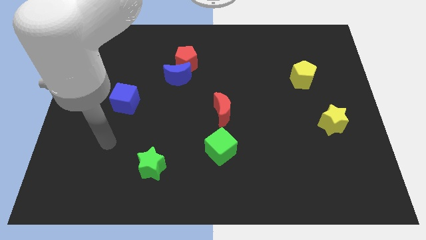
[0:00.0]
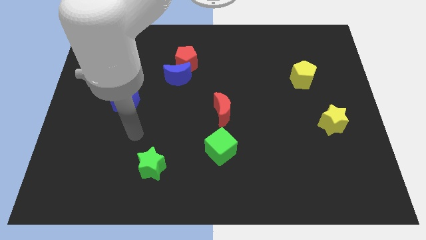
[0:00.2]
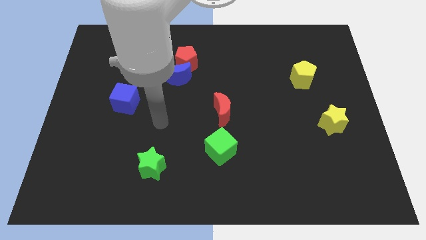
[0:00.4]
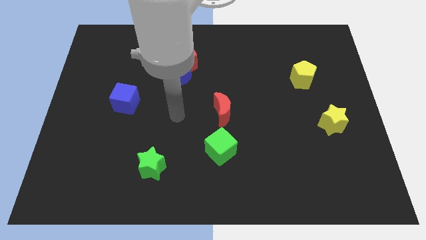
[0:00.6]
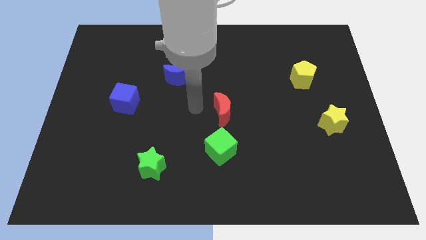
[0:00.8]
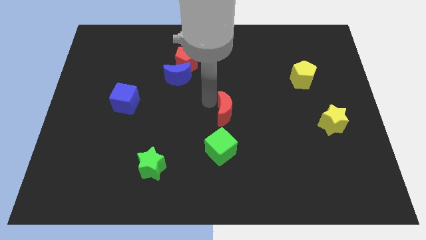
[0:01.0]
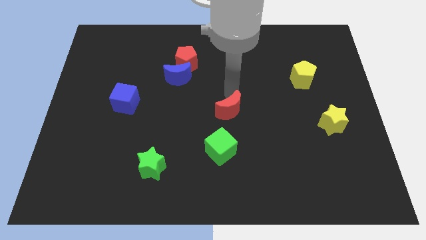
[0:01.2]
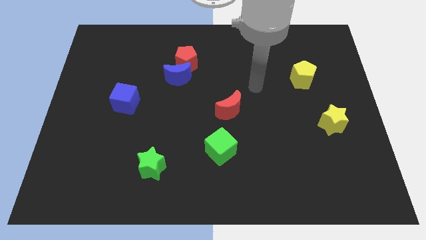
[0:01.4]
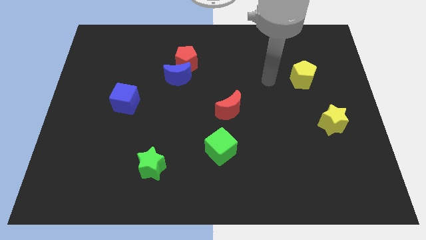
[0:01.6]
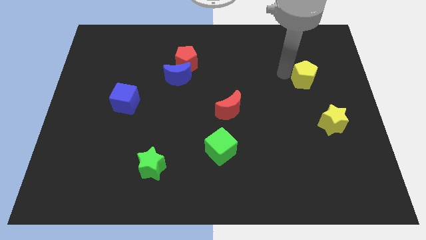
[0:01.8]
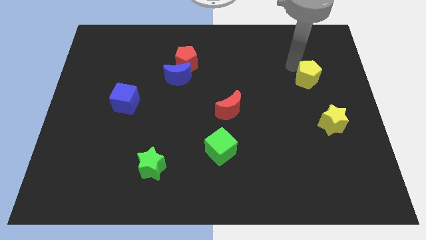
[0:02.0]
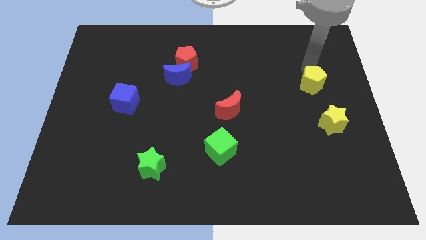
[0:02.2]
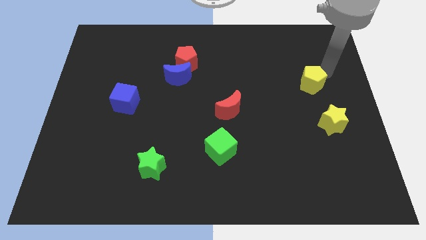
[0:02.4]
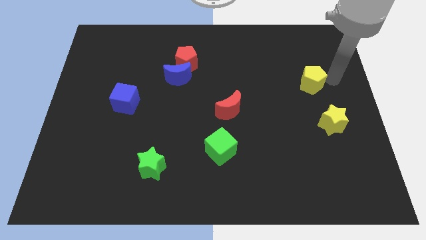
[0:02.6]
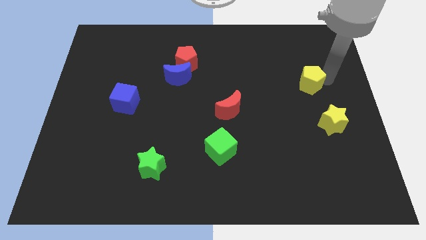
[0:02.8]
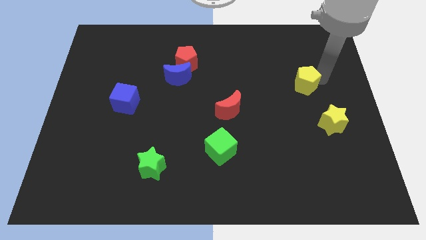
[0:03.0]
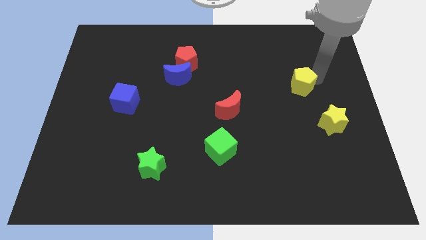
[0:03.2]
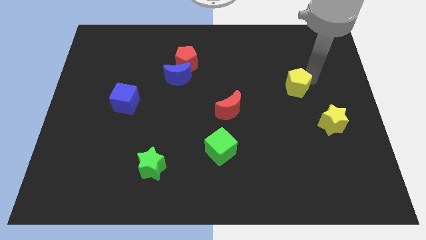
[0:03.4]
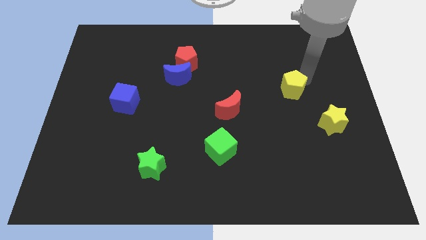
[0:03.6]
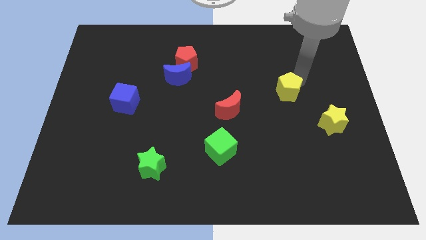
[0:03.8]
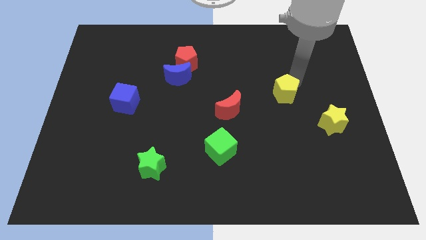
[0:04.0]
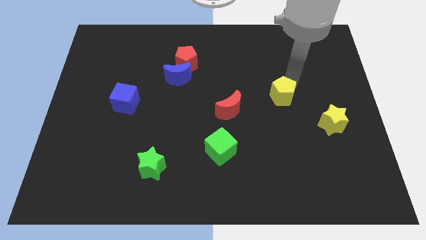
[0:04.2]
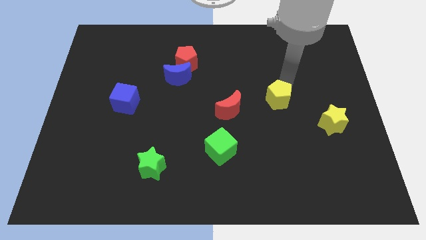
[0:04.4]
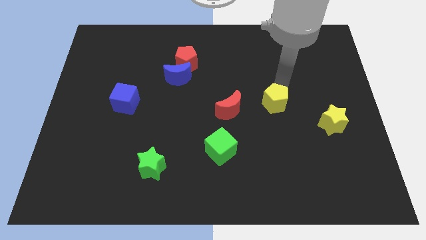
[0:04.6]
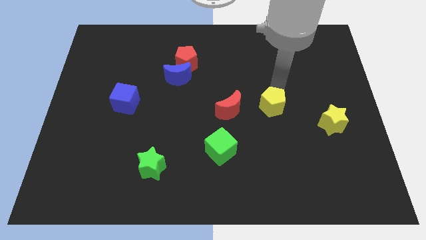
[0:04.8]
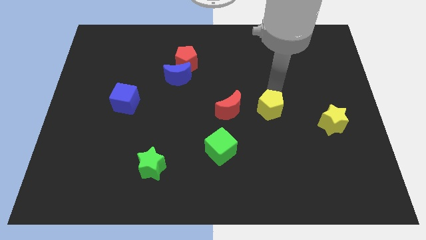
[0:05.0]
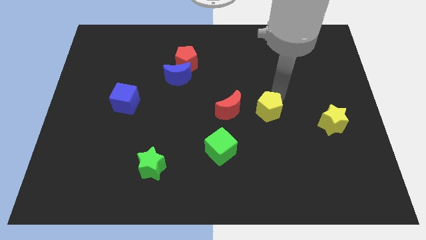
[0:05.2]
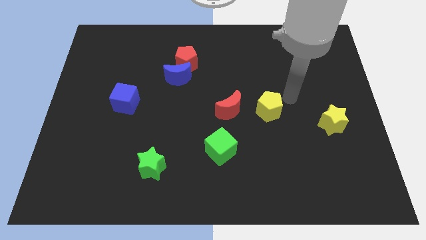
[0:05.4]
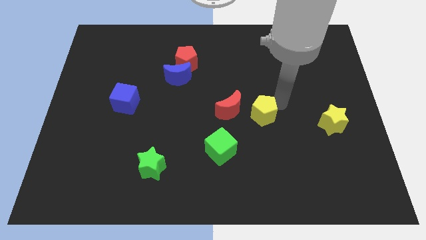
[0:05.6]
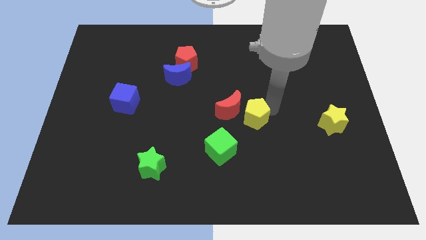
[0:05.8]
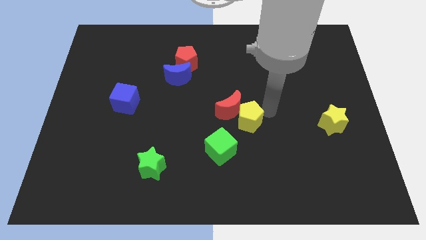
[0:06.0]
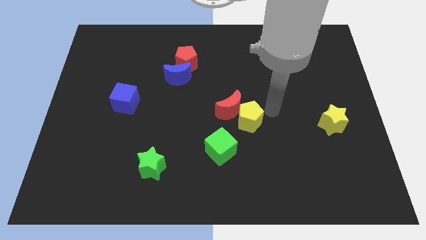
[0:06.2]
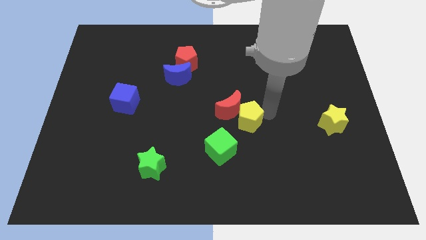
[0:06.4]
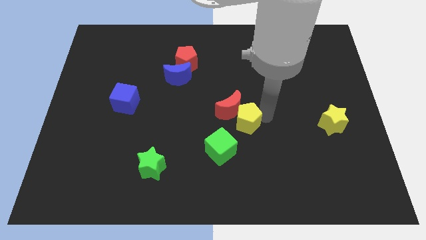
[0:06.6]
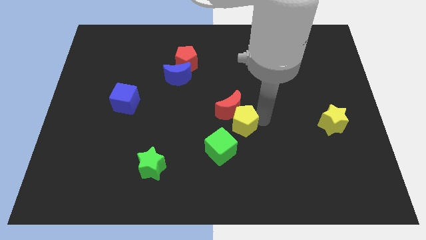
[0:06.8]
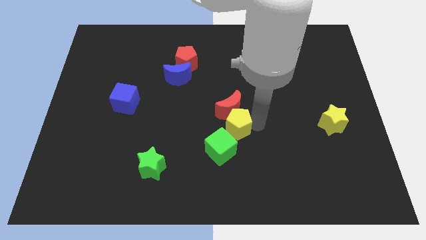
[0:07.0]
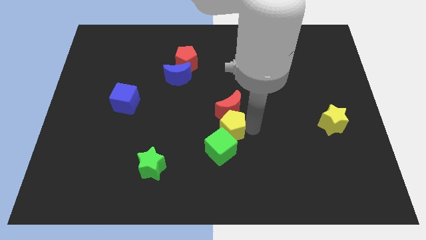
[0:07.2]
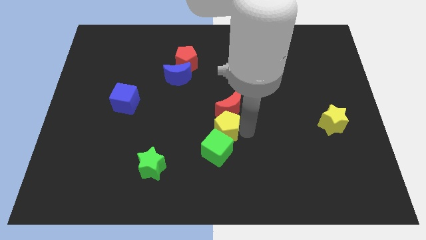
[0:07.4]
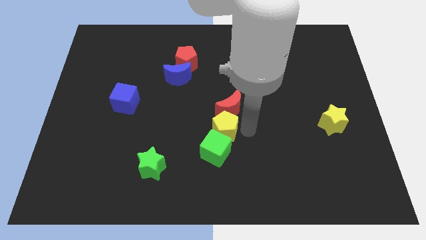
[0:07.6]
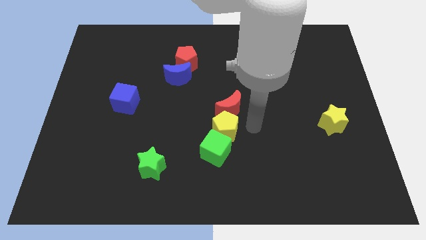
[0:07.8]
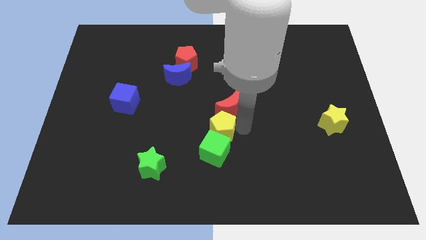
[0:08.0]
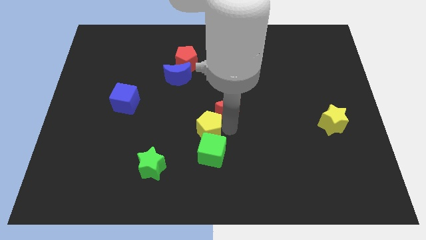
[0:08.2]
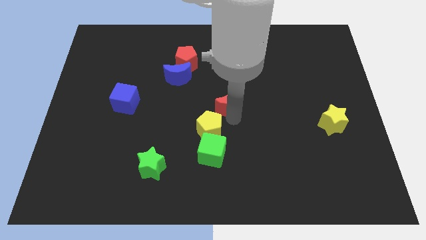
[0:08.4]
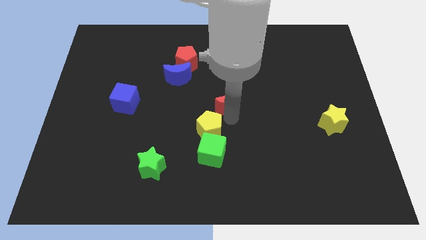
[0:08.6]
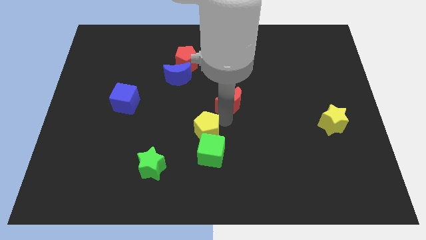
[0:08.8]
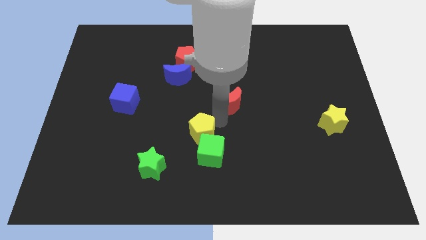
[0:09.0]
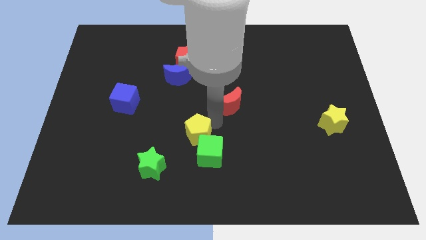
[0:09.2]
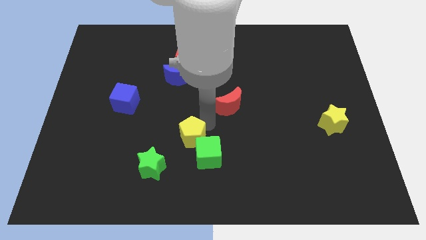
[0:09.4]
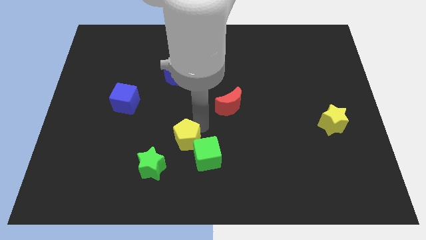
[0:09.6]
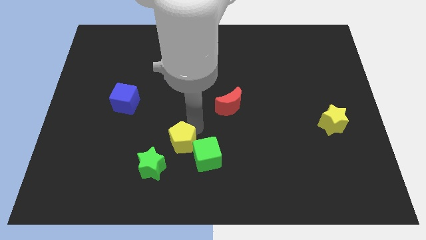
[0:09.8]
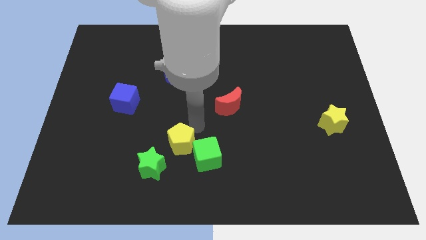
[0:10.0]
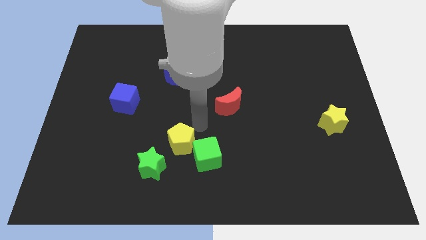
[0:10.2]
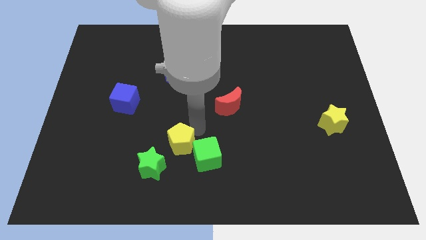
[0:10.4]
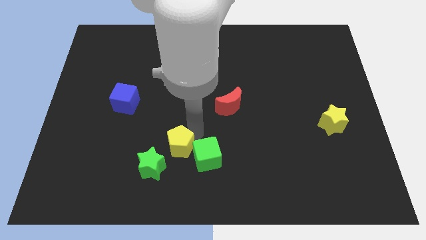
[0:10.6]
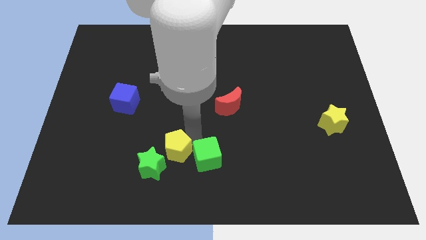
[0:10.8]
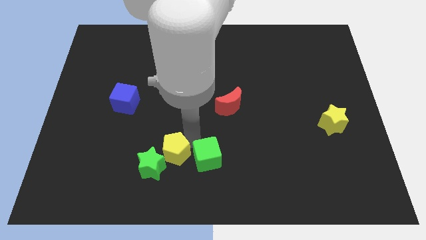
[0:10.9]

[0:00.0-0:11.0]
slide the yellow pentagon to the green star

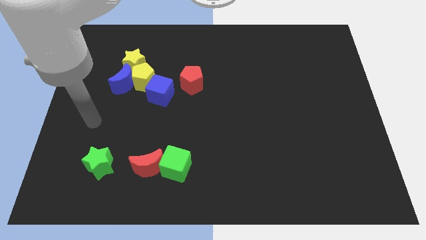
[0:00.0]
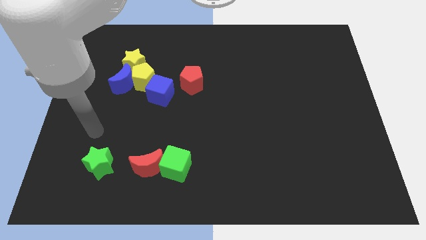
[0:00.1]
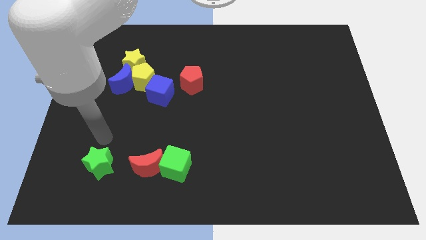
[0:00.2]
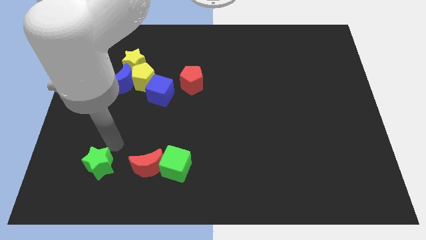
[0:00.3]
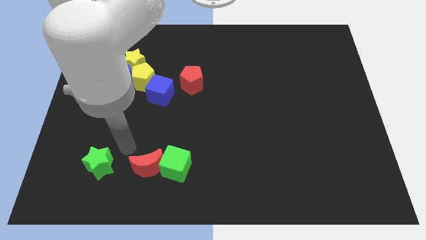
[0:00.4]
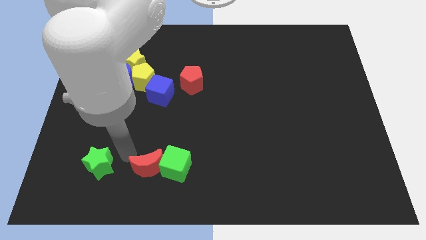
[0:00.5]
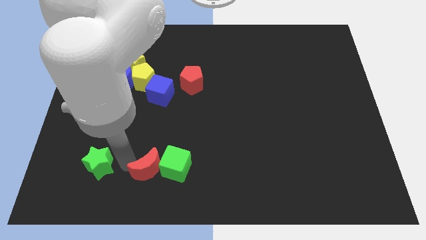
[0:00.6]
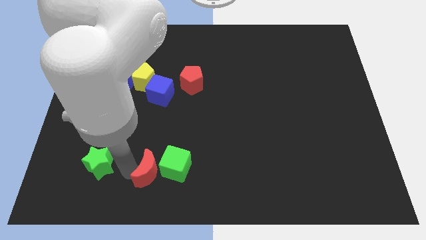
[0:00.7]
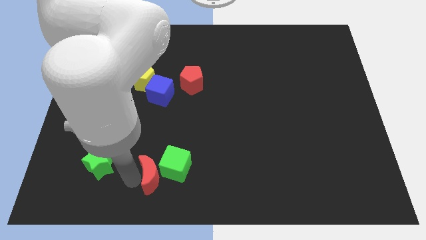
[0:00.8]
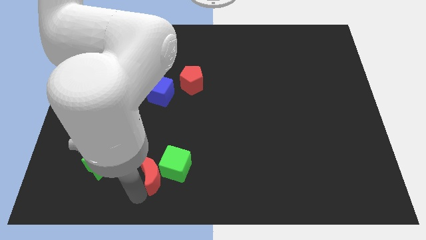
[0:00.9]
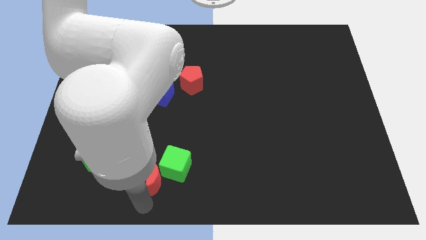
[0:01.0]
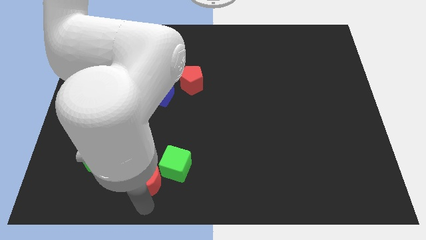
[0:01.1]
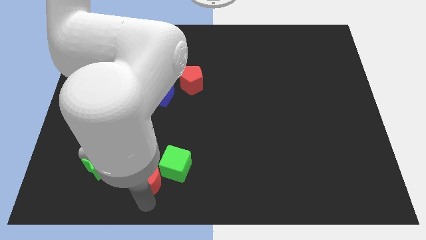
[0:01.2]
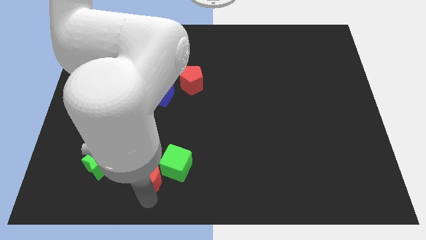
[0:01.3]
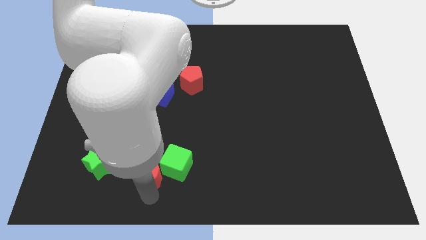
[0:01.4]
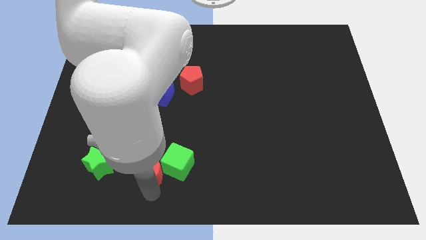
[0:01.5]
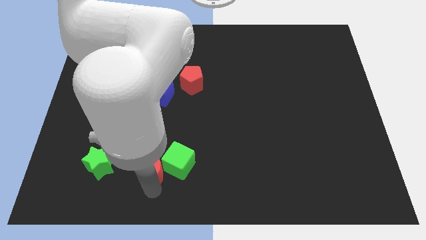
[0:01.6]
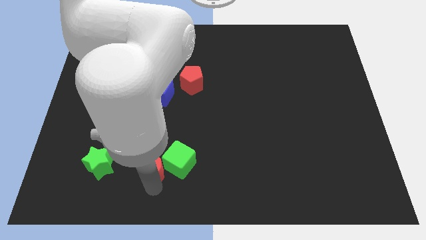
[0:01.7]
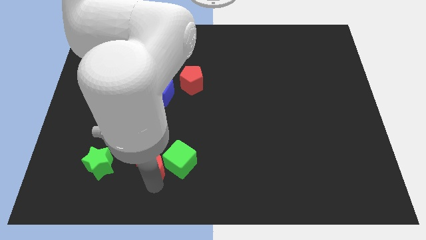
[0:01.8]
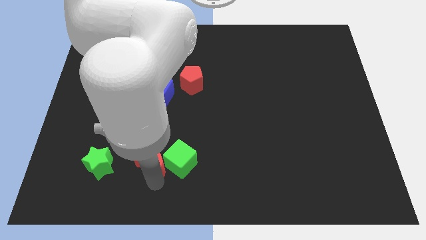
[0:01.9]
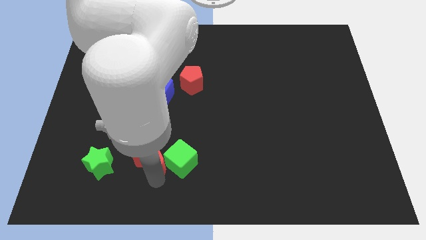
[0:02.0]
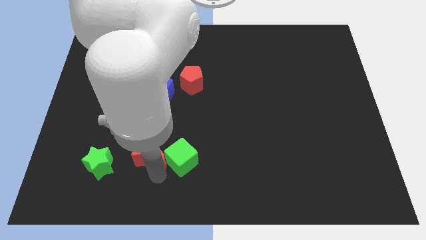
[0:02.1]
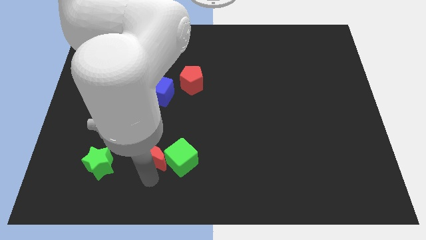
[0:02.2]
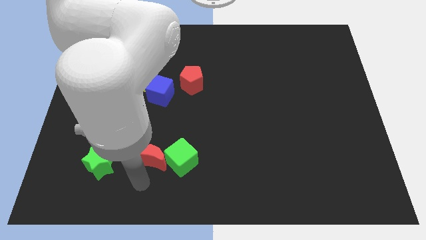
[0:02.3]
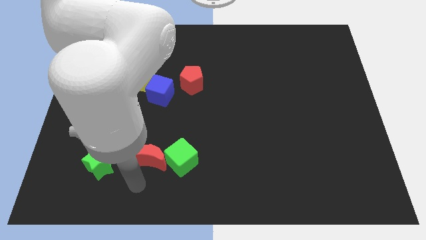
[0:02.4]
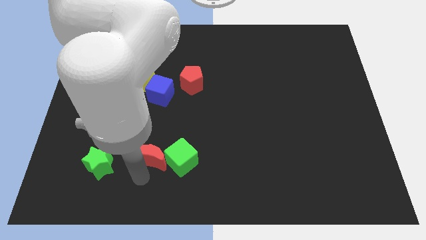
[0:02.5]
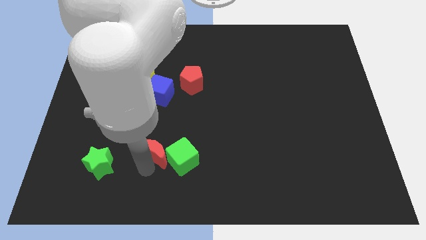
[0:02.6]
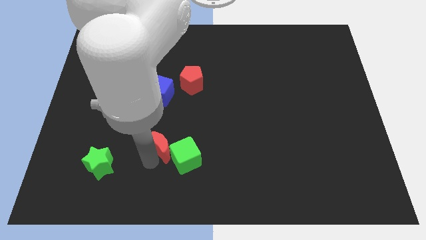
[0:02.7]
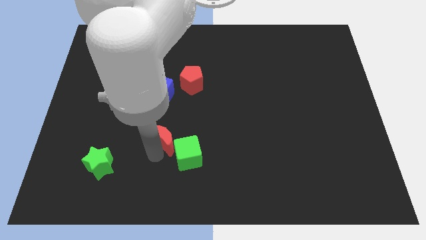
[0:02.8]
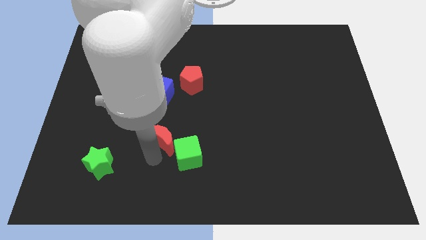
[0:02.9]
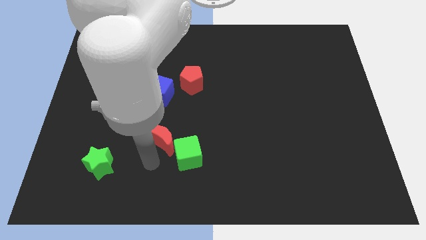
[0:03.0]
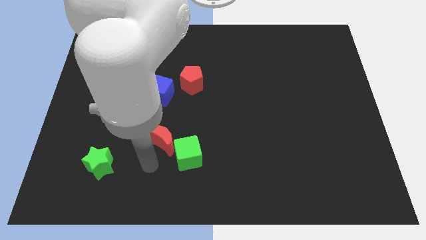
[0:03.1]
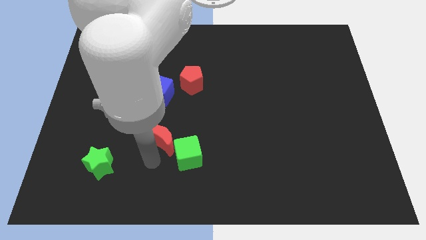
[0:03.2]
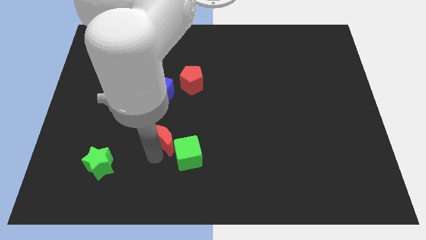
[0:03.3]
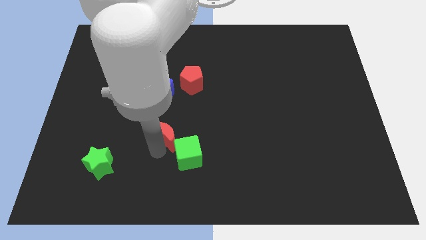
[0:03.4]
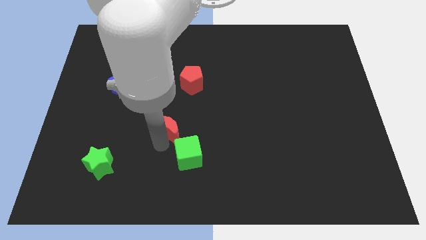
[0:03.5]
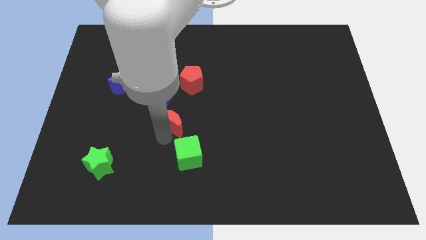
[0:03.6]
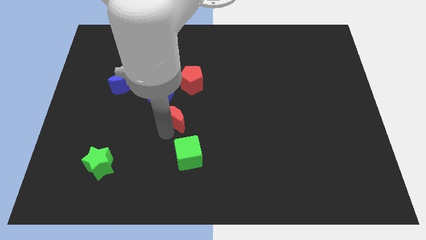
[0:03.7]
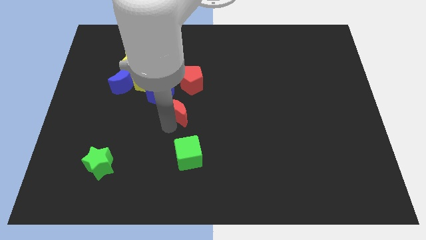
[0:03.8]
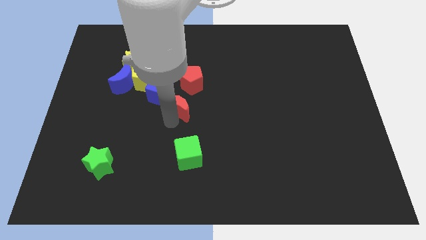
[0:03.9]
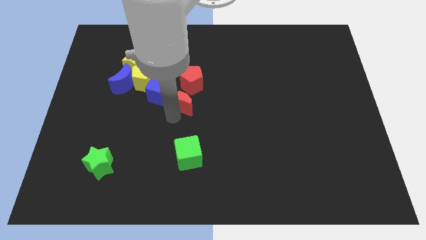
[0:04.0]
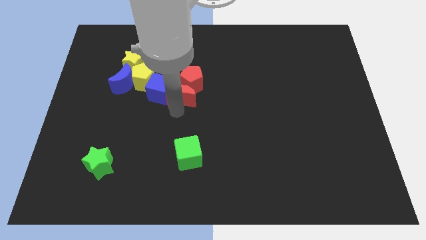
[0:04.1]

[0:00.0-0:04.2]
move the red moon next to the red pentagon
